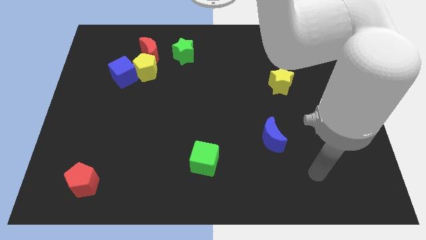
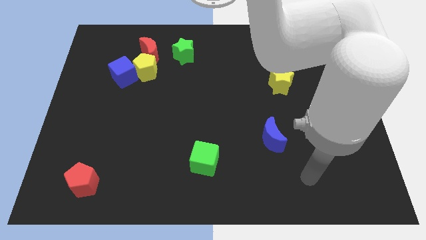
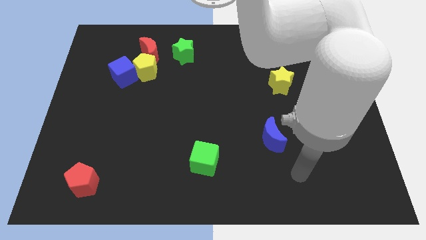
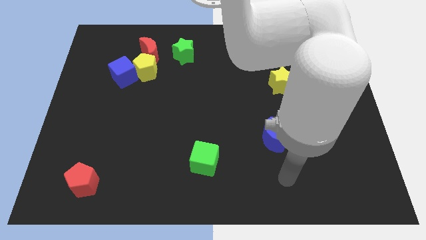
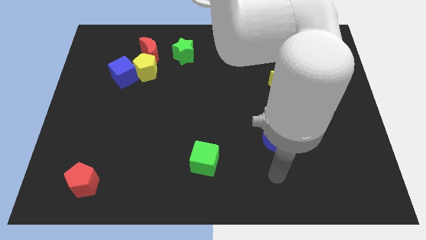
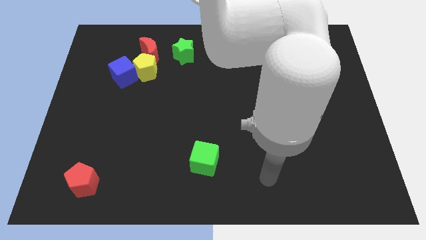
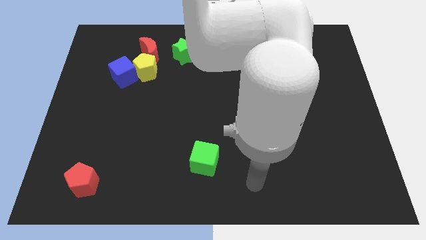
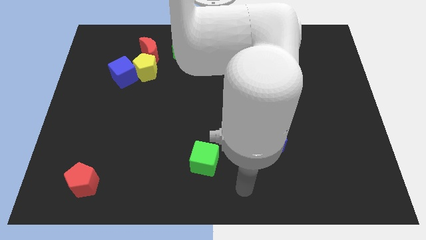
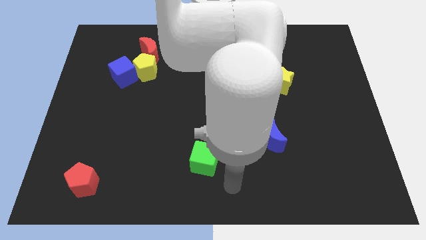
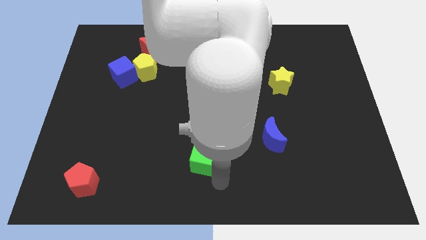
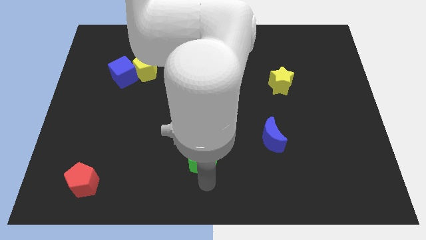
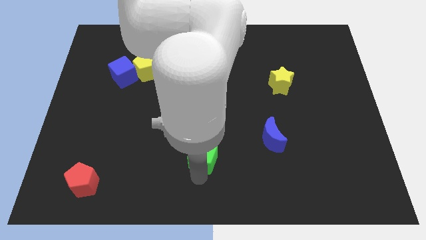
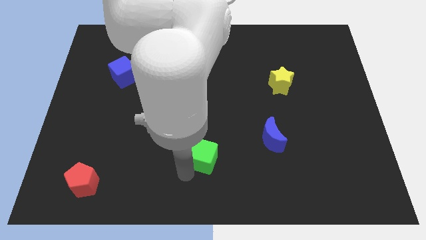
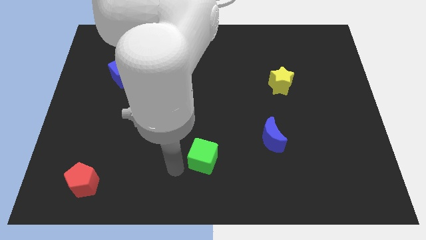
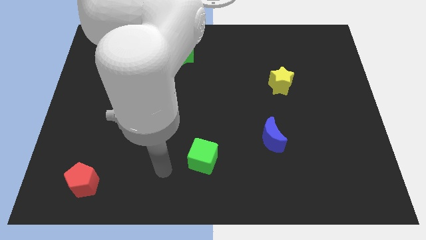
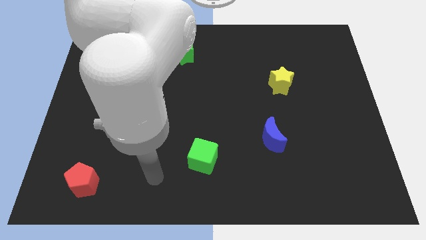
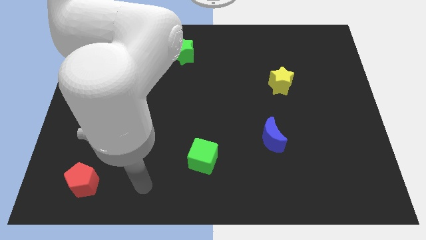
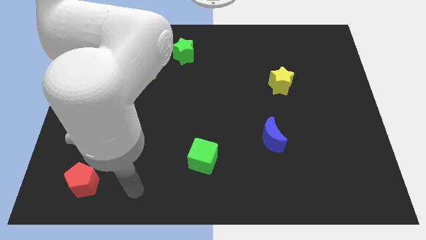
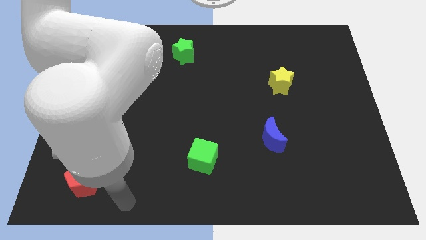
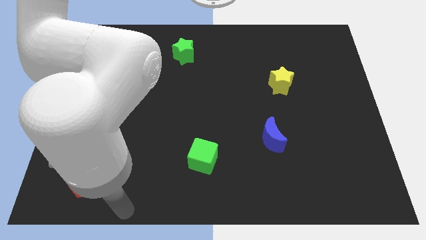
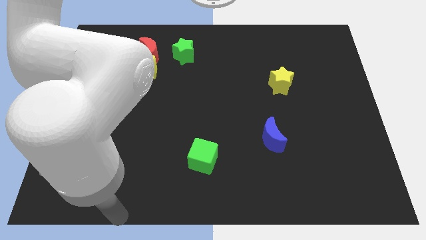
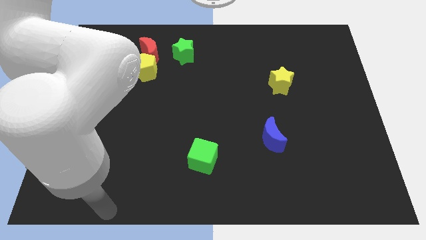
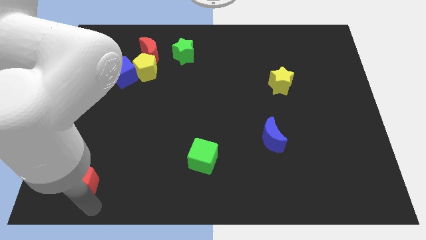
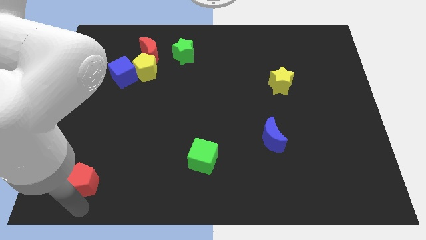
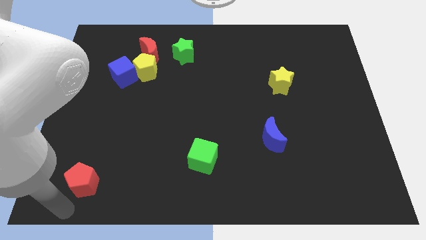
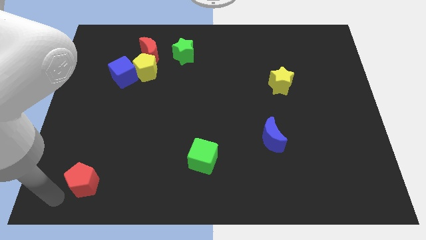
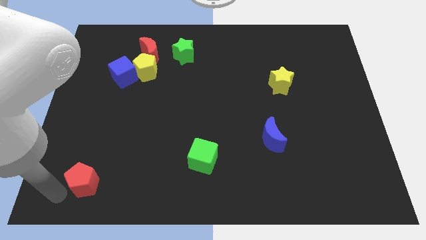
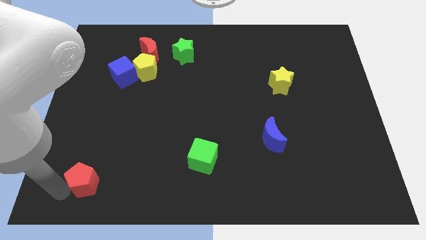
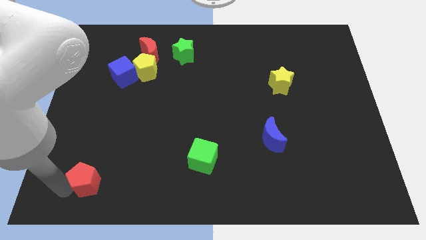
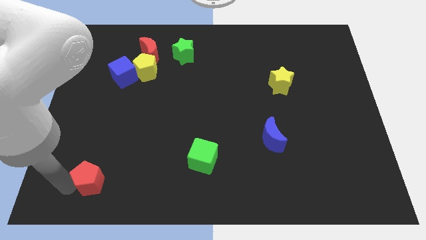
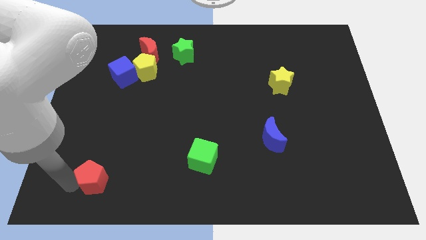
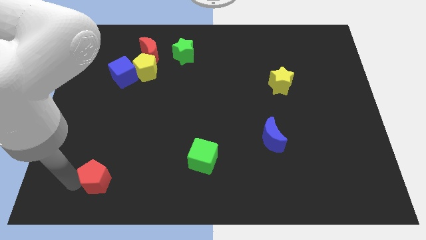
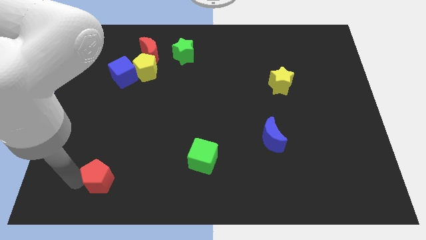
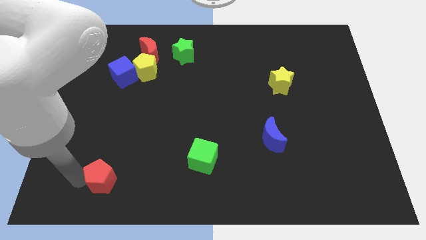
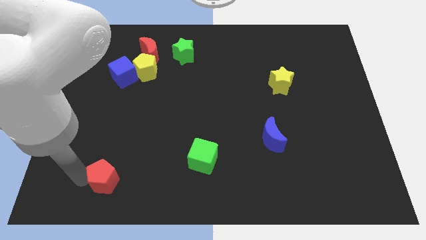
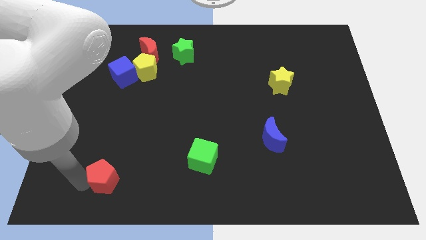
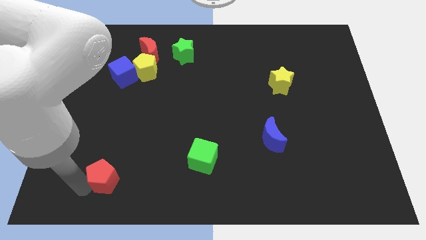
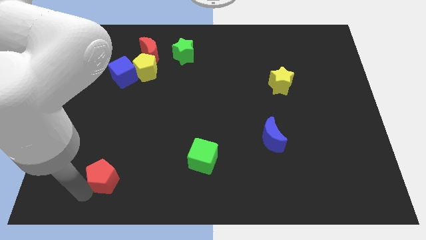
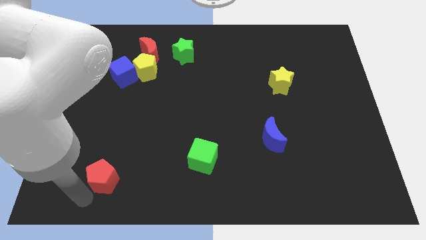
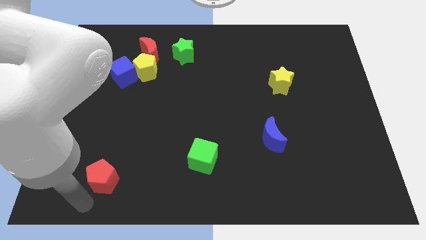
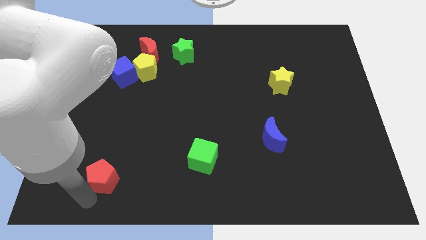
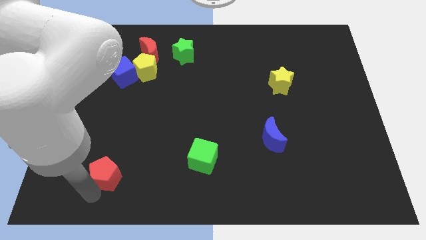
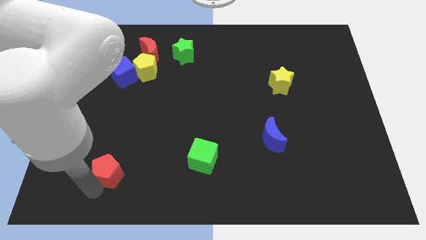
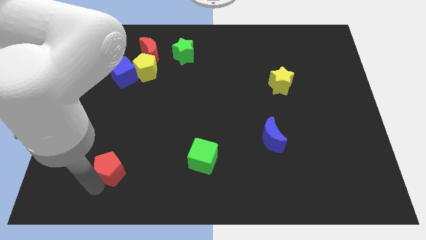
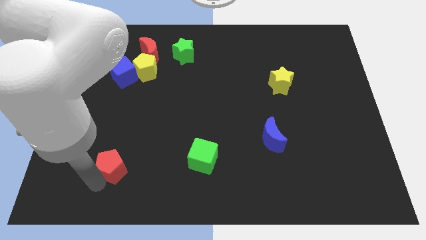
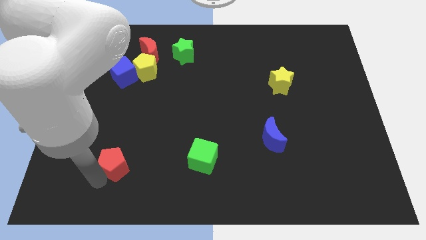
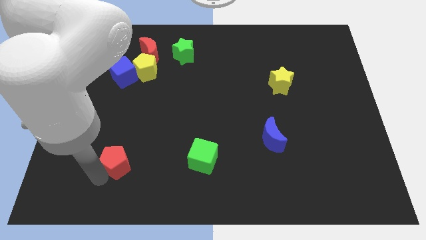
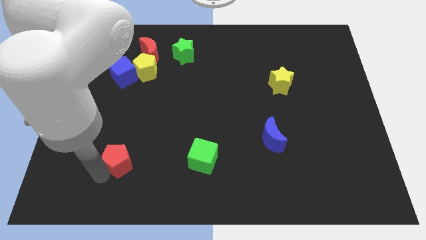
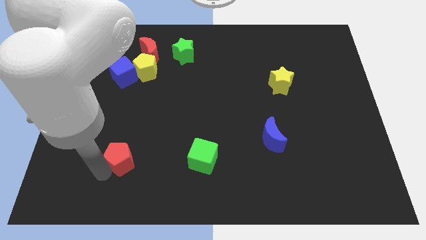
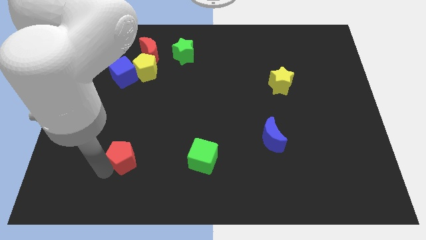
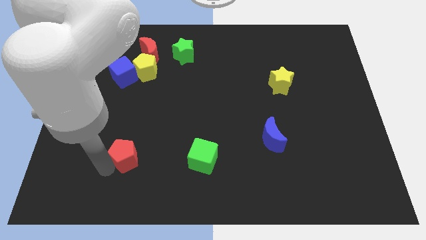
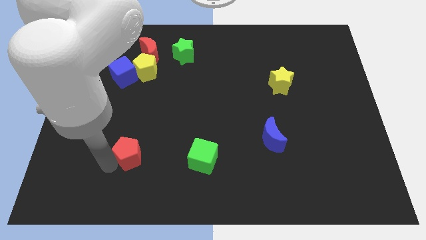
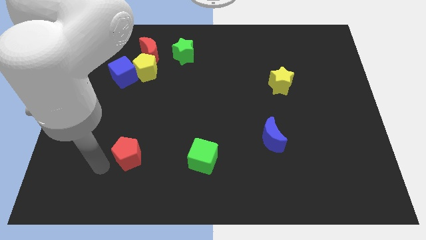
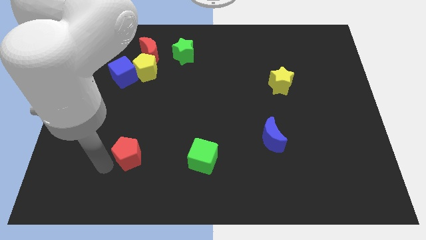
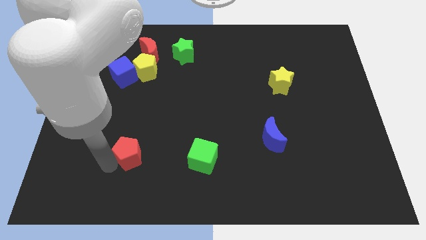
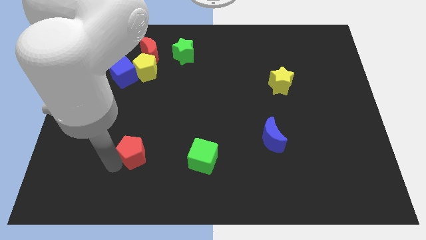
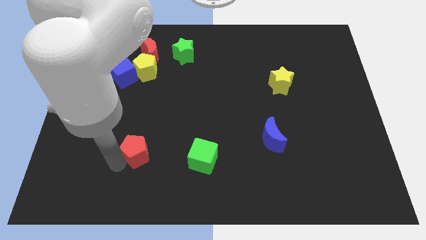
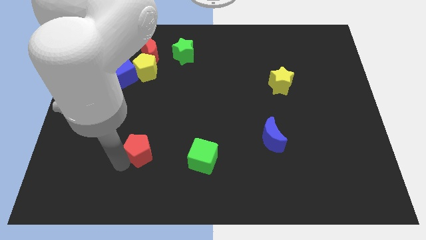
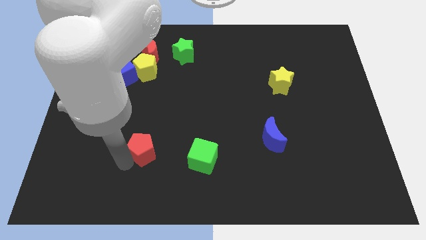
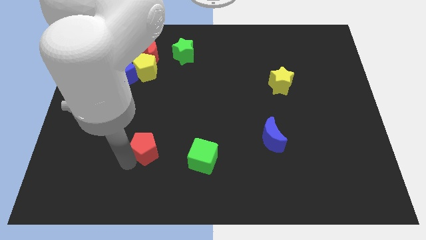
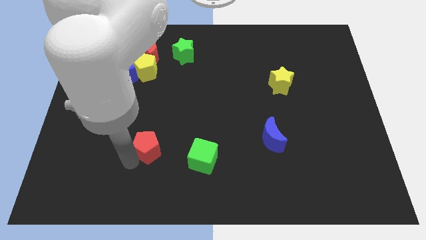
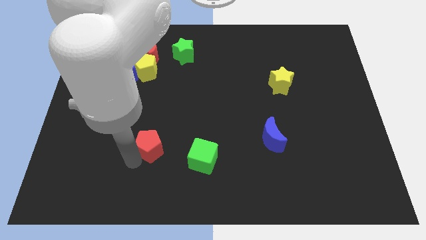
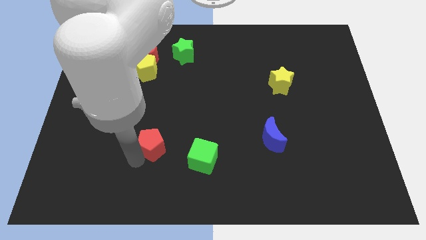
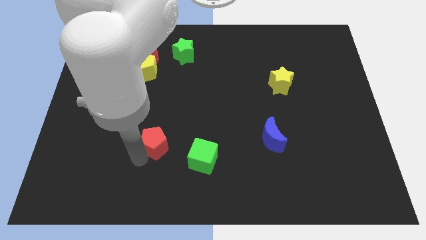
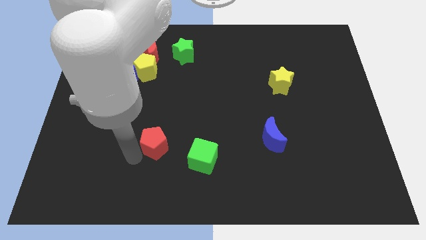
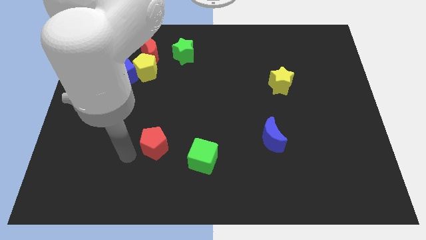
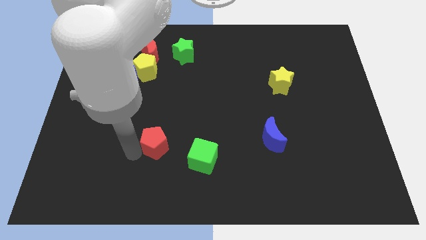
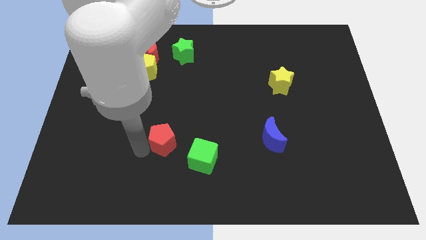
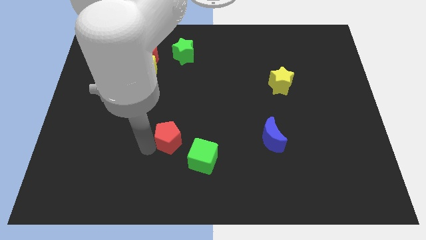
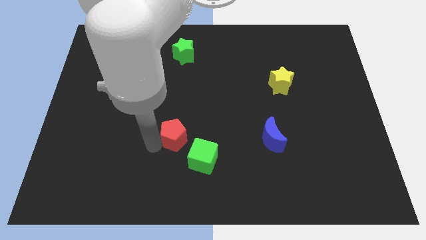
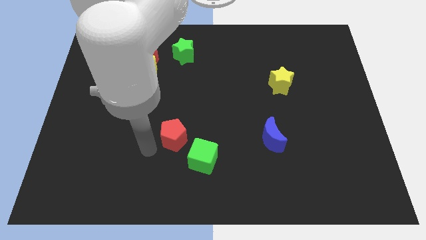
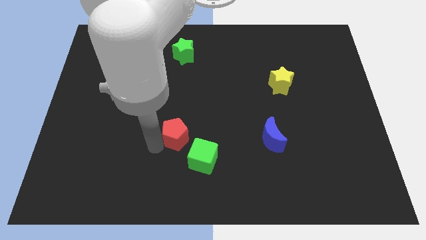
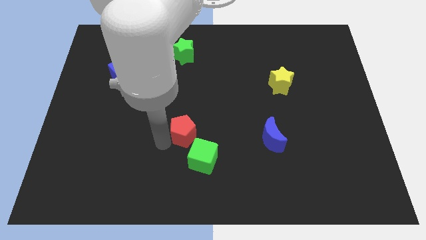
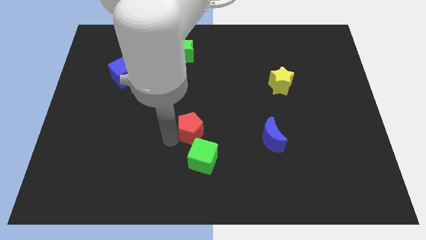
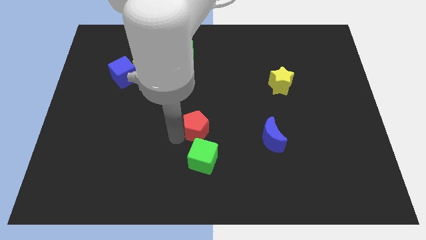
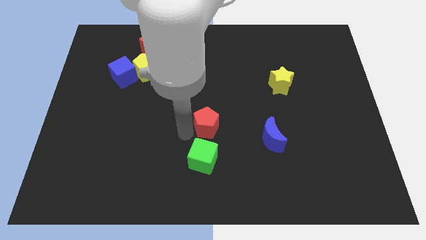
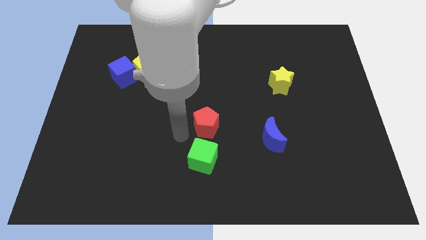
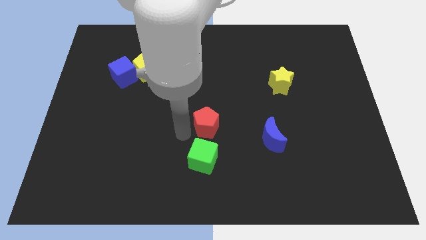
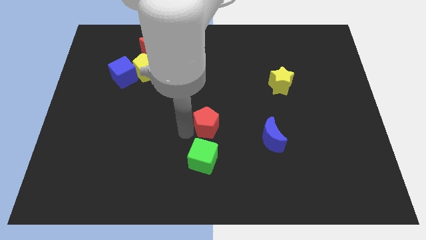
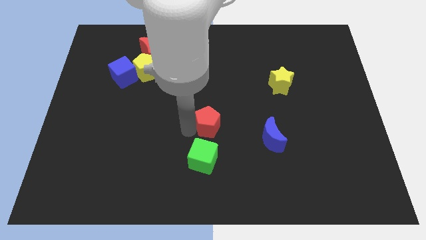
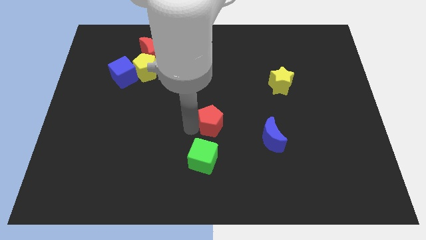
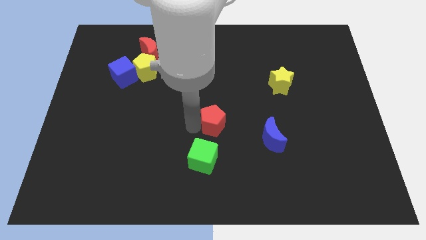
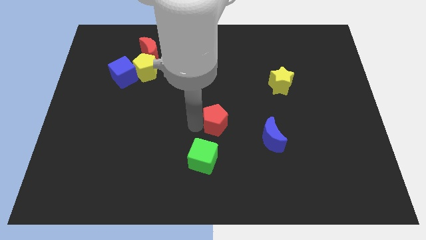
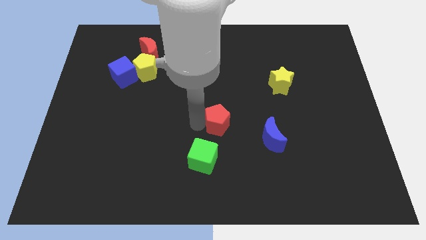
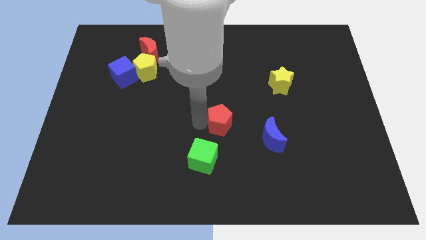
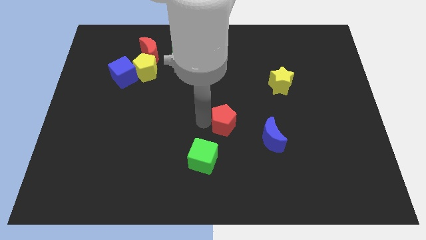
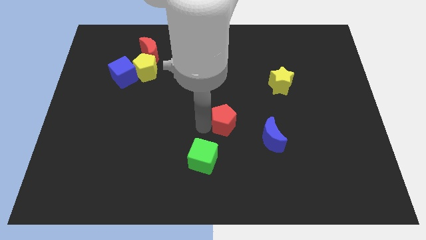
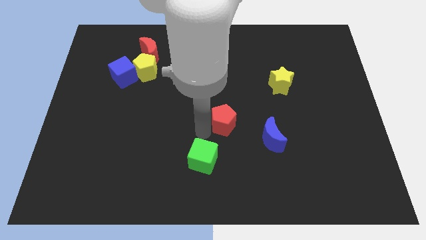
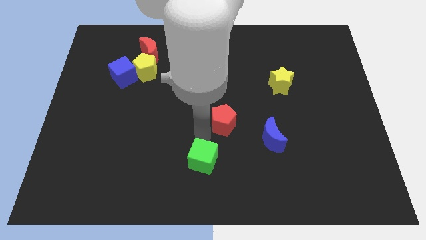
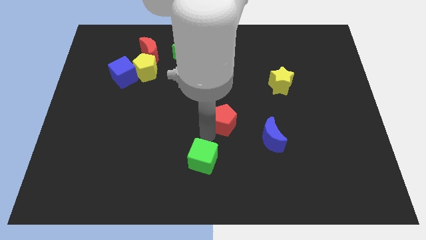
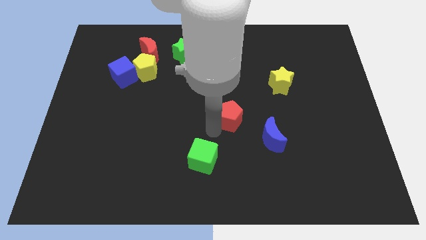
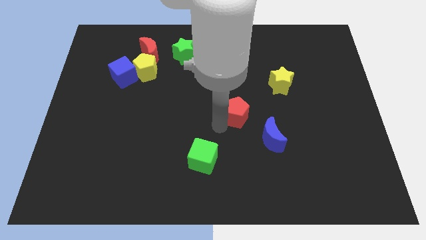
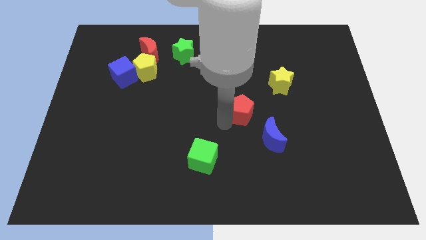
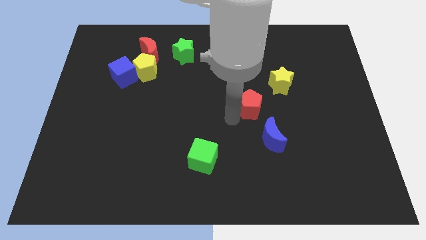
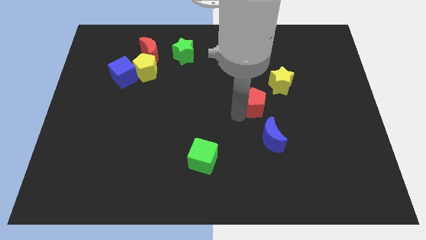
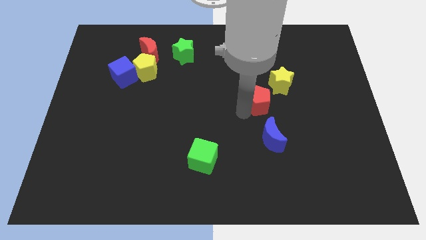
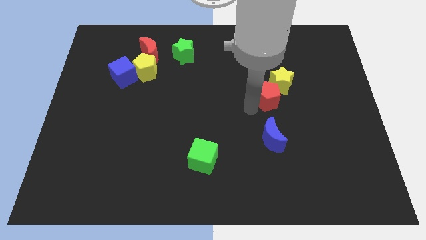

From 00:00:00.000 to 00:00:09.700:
put the red pentagon close to the yellow star
